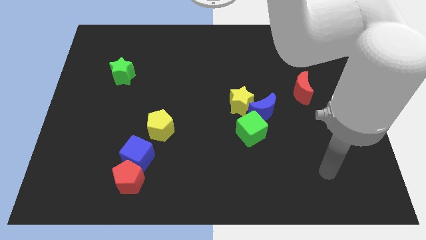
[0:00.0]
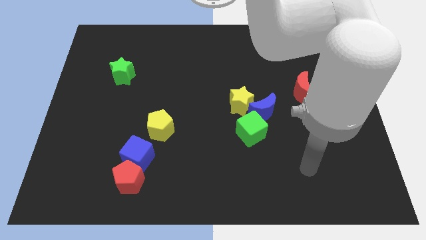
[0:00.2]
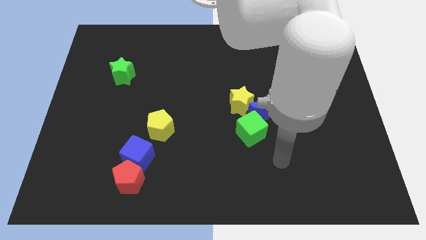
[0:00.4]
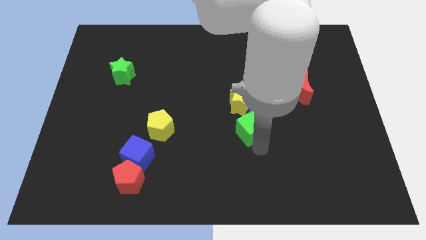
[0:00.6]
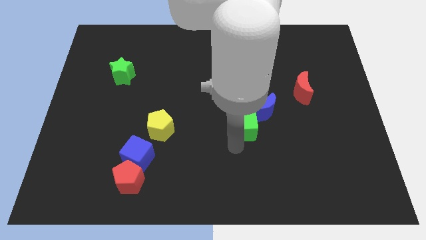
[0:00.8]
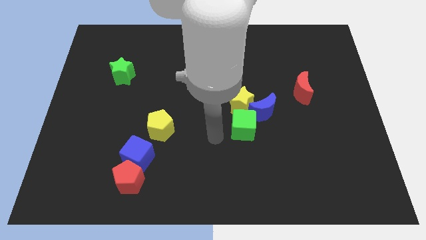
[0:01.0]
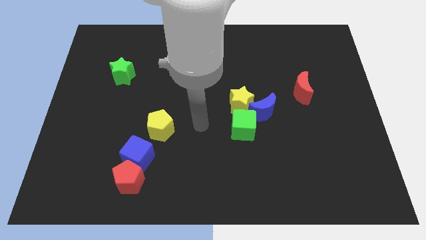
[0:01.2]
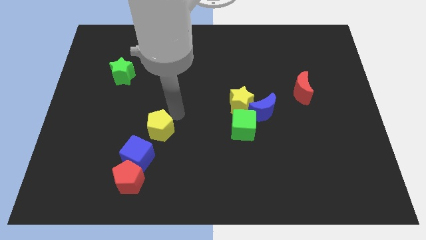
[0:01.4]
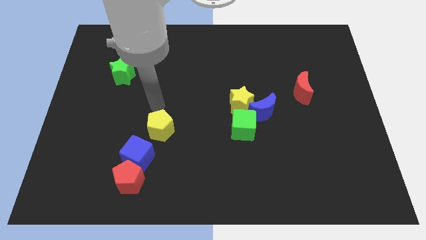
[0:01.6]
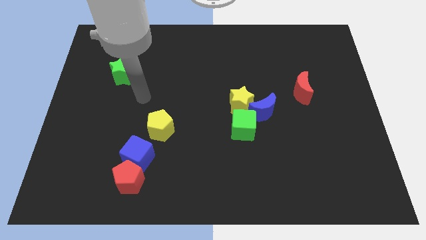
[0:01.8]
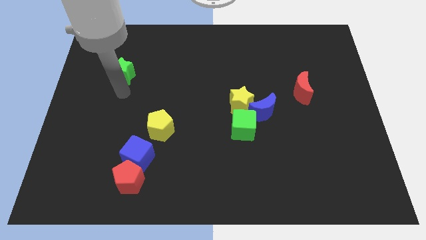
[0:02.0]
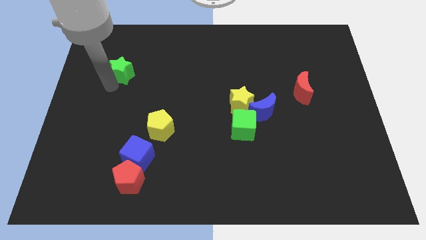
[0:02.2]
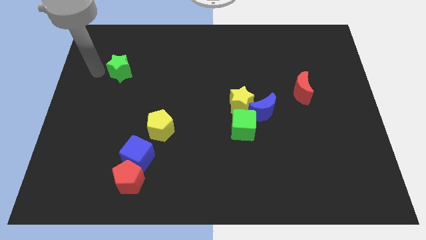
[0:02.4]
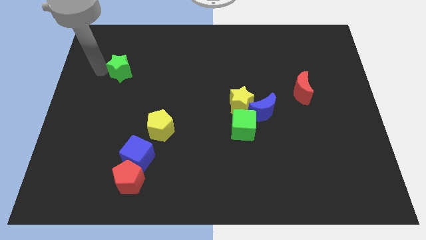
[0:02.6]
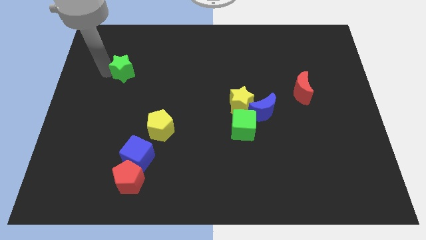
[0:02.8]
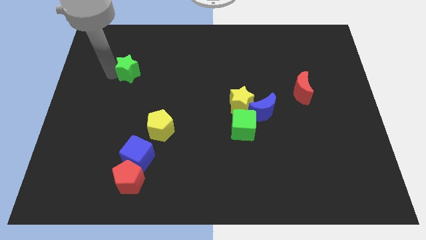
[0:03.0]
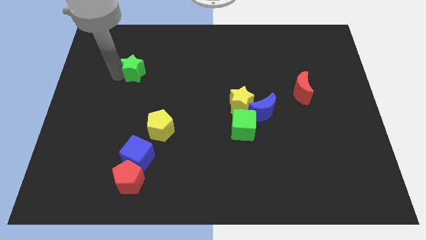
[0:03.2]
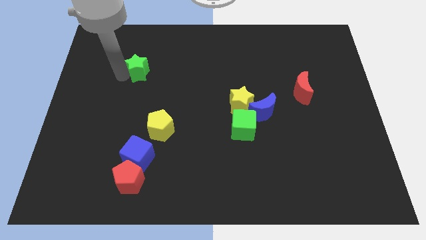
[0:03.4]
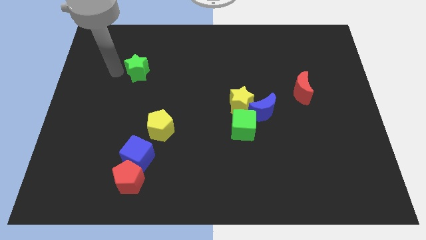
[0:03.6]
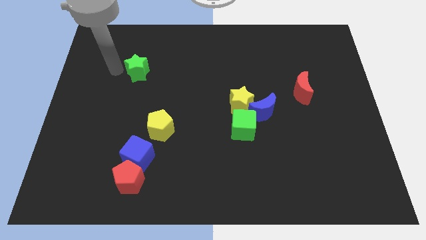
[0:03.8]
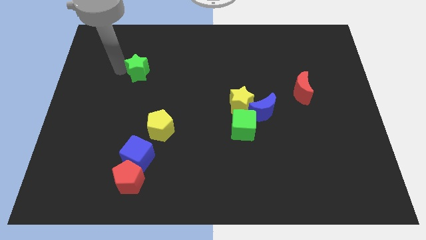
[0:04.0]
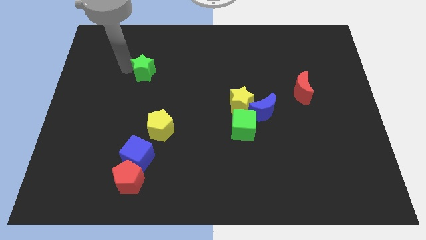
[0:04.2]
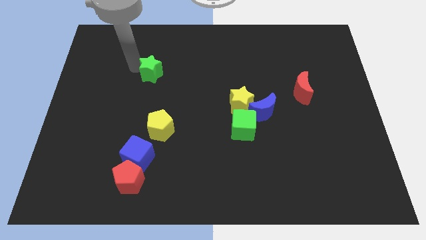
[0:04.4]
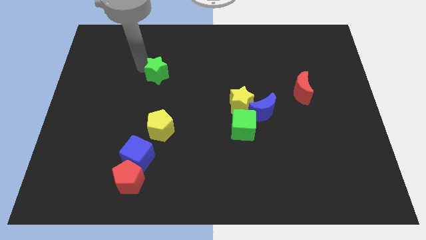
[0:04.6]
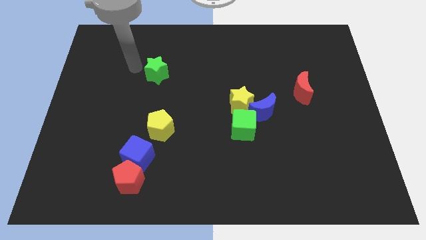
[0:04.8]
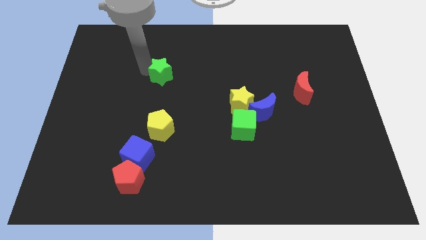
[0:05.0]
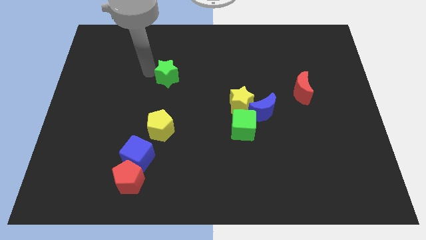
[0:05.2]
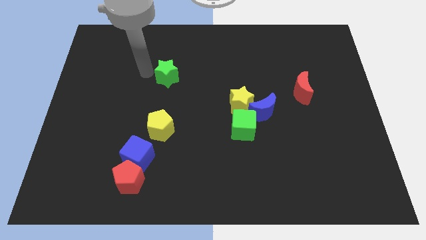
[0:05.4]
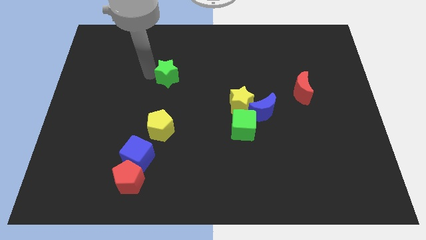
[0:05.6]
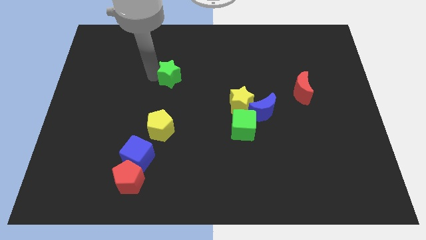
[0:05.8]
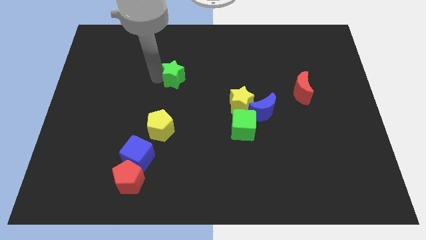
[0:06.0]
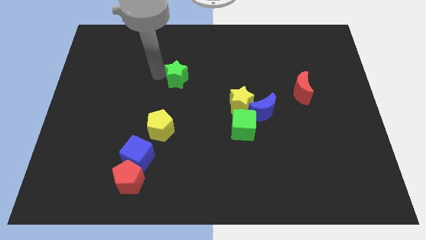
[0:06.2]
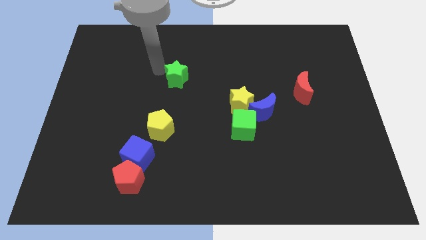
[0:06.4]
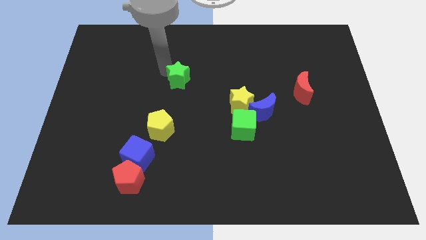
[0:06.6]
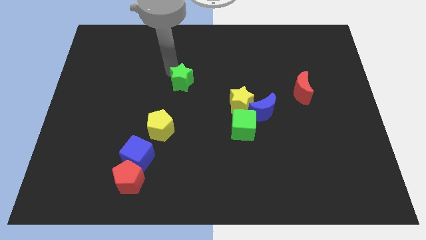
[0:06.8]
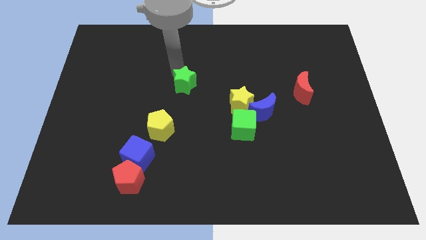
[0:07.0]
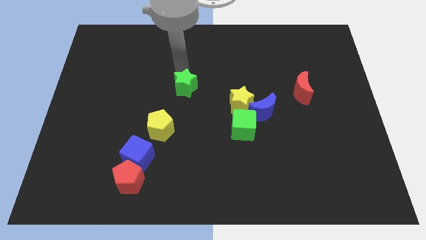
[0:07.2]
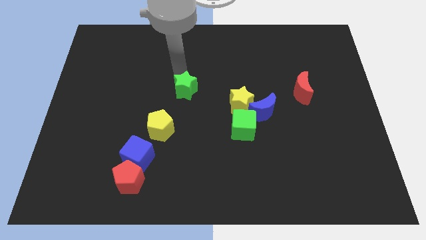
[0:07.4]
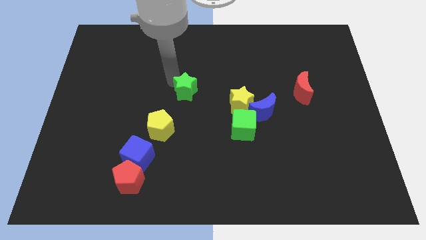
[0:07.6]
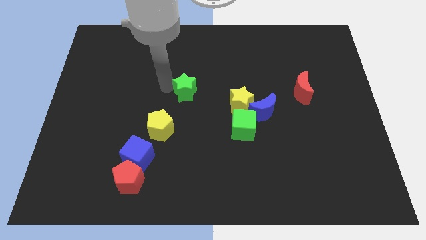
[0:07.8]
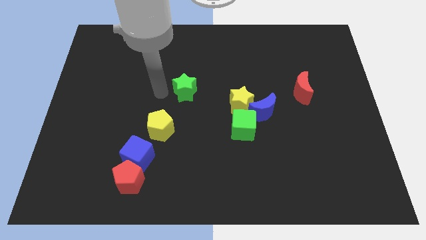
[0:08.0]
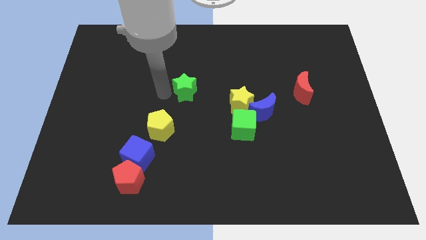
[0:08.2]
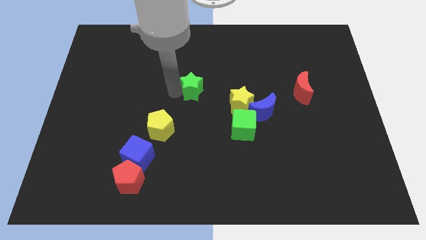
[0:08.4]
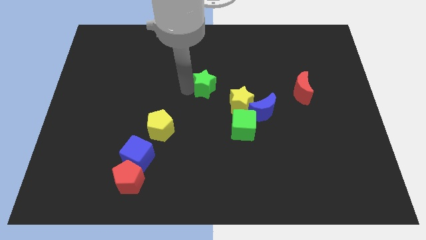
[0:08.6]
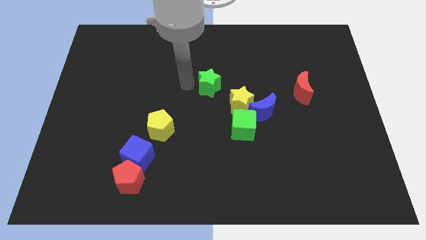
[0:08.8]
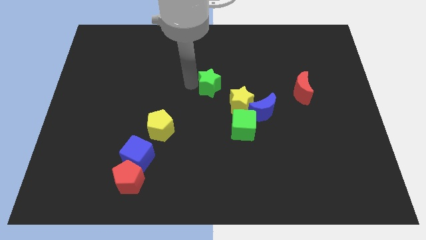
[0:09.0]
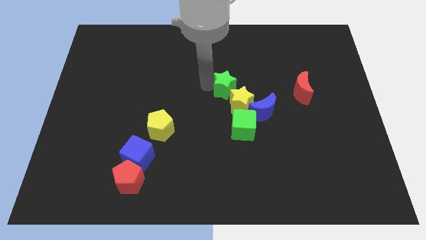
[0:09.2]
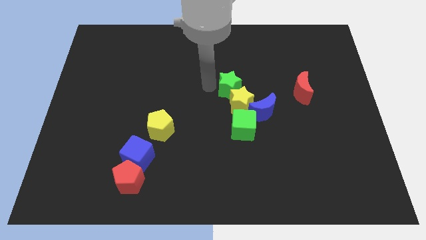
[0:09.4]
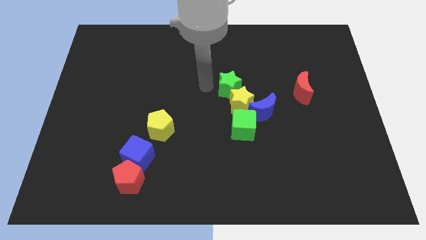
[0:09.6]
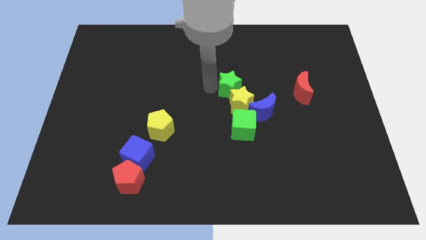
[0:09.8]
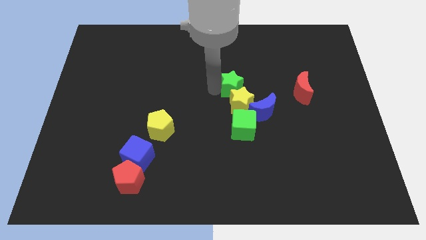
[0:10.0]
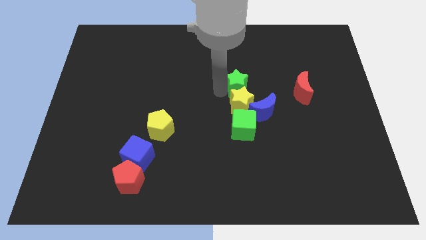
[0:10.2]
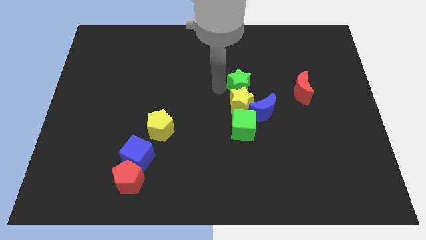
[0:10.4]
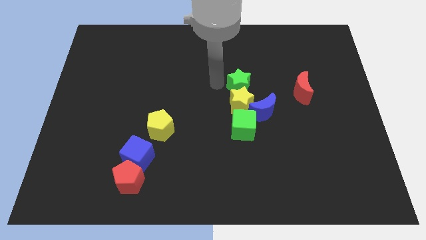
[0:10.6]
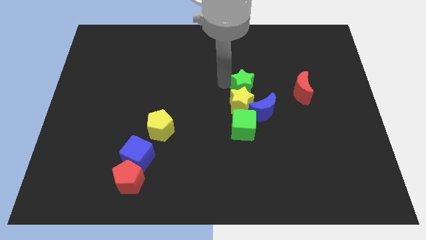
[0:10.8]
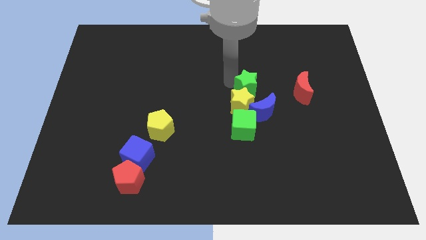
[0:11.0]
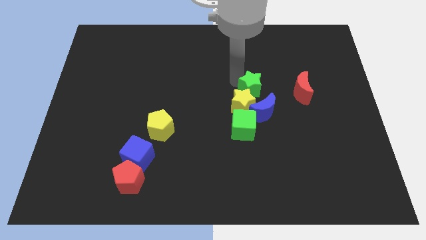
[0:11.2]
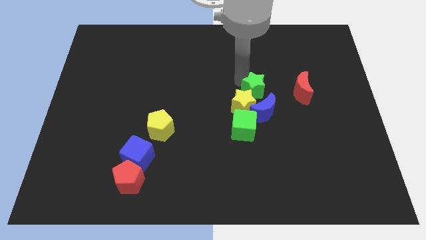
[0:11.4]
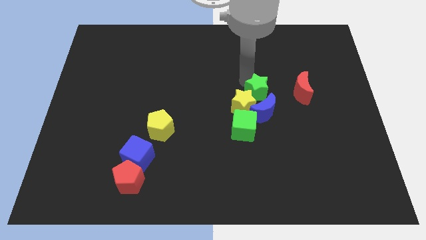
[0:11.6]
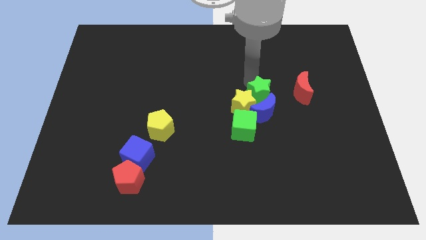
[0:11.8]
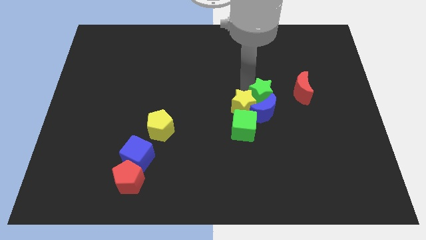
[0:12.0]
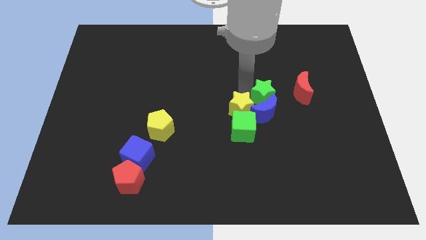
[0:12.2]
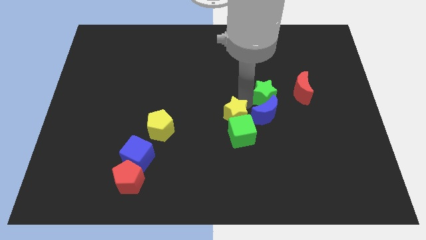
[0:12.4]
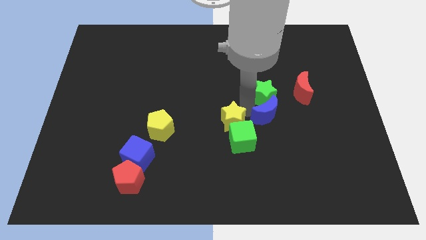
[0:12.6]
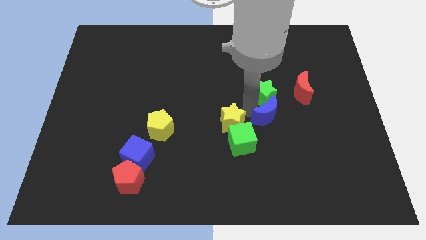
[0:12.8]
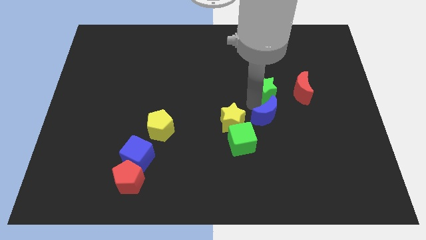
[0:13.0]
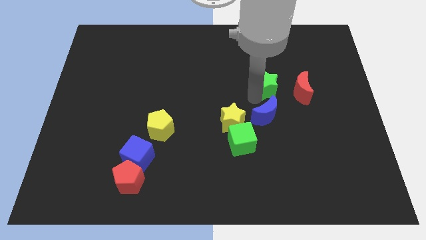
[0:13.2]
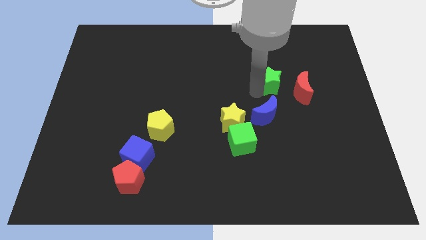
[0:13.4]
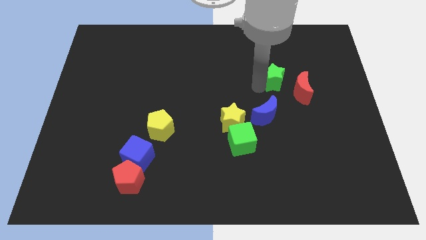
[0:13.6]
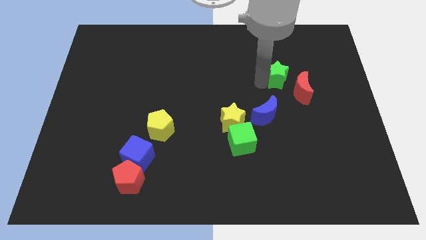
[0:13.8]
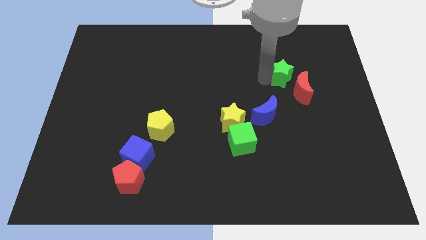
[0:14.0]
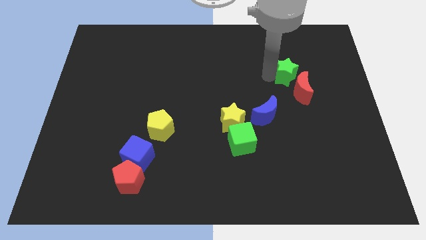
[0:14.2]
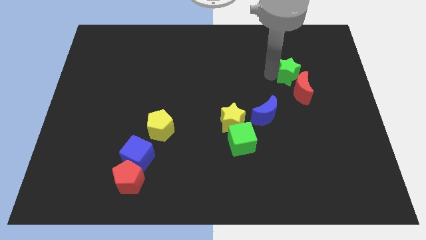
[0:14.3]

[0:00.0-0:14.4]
slide the green star towards the red moon
